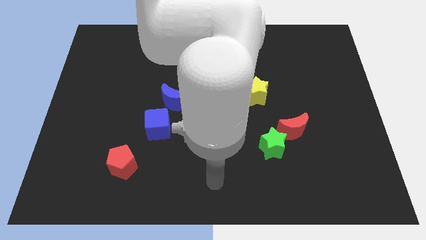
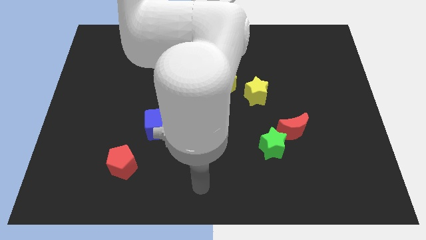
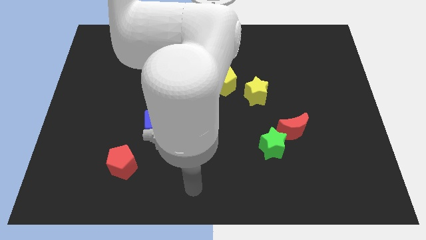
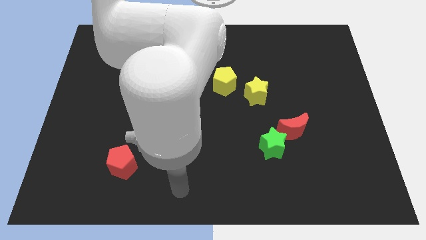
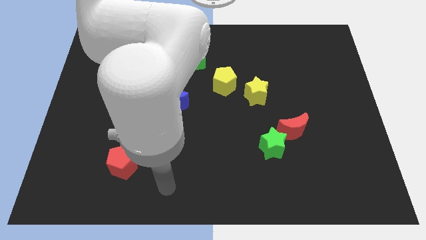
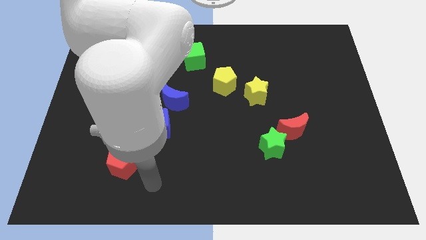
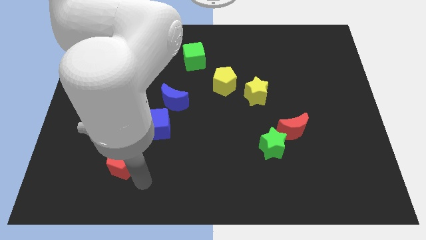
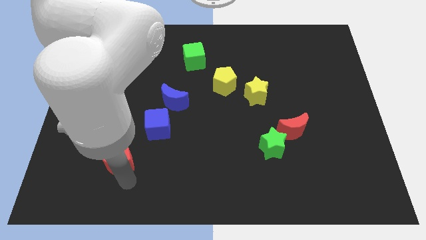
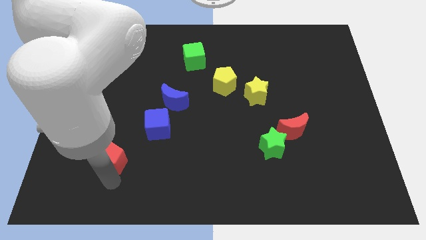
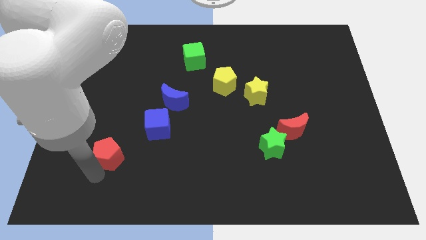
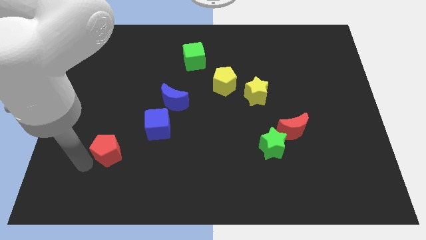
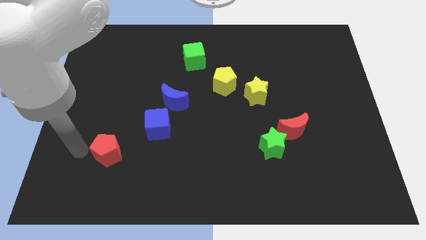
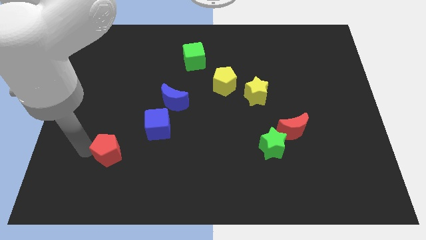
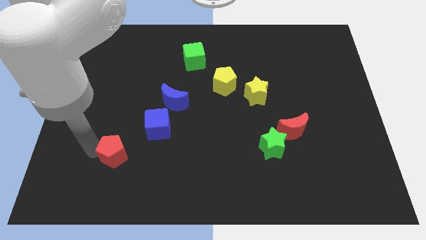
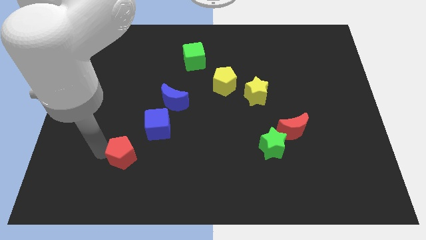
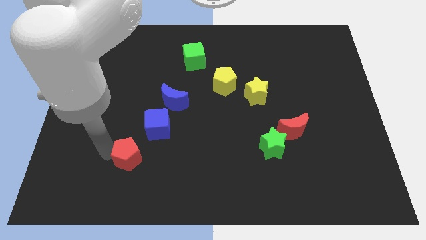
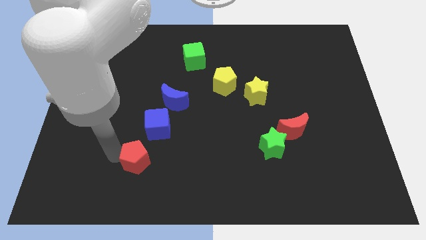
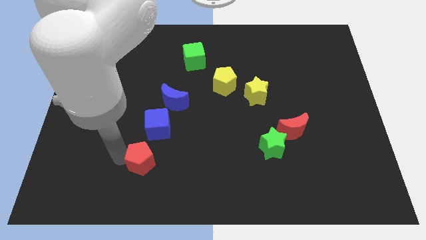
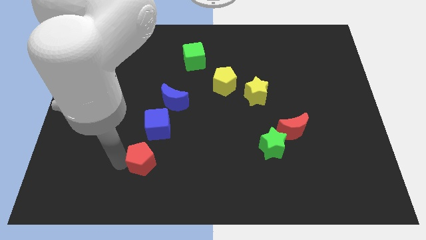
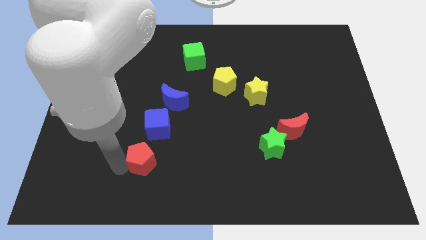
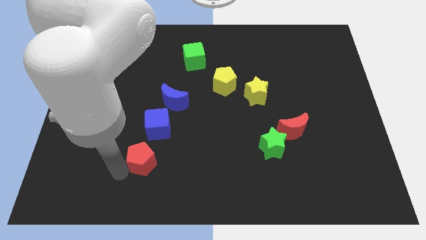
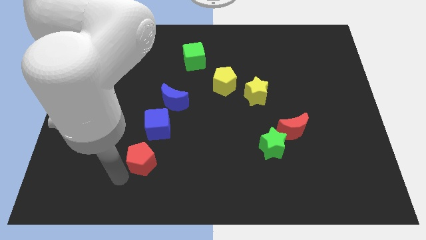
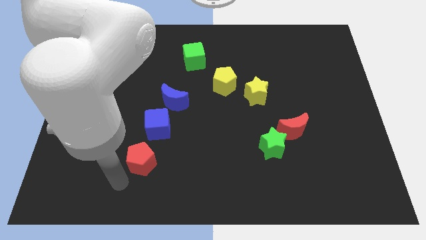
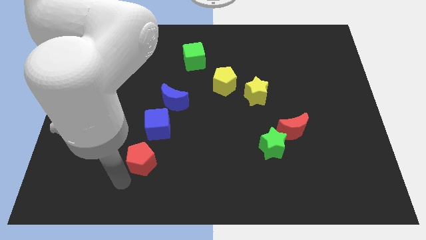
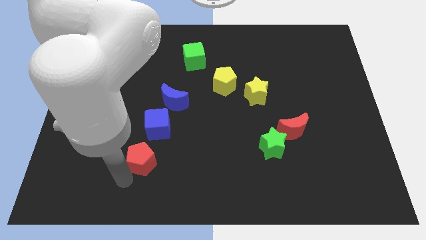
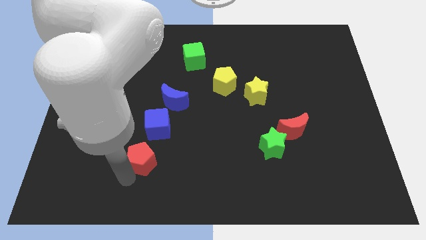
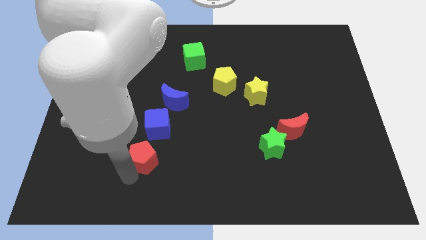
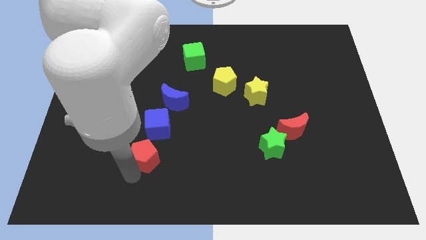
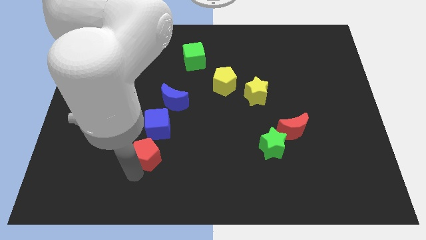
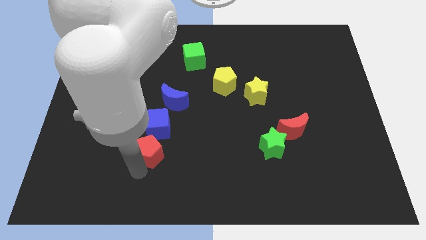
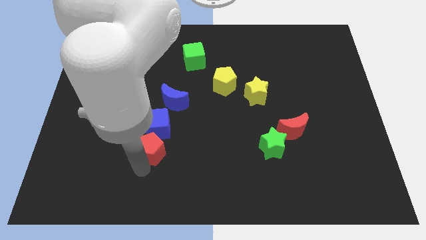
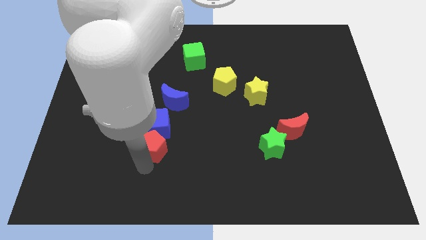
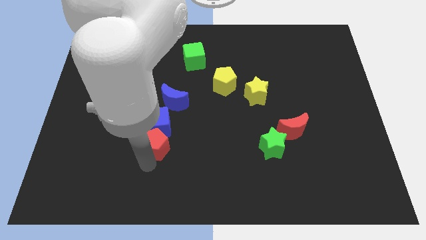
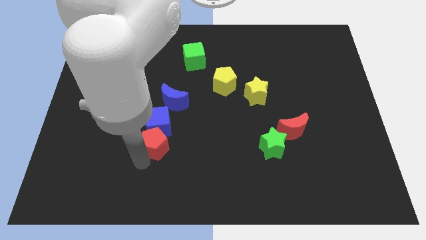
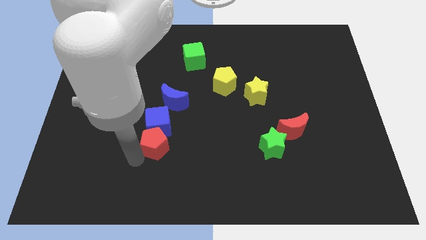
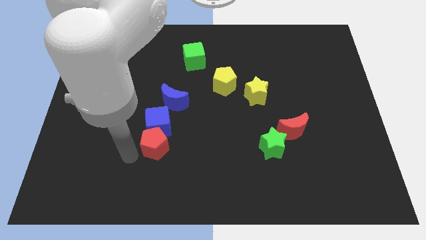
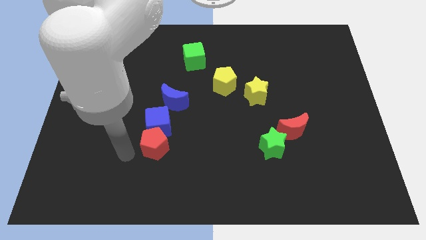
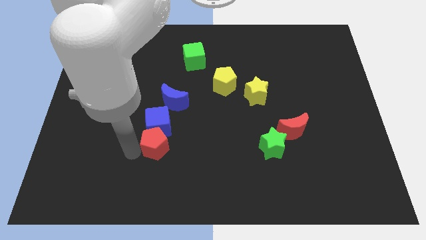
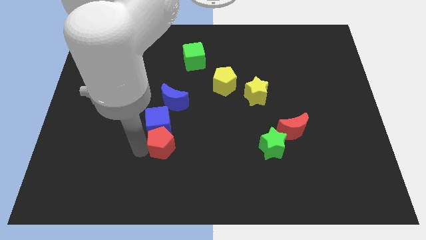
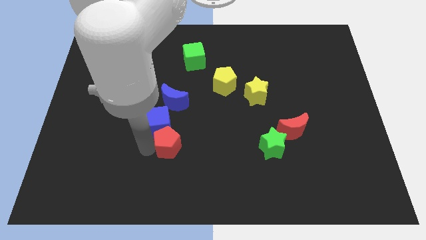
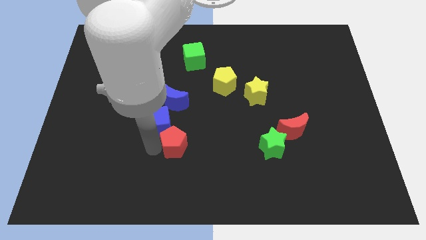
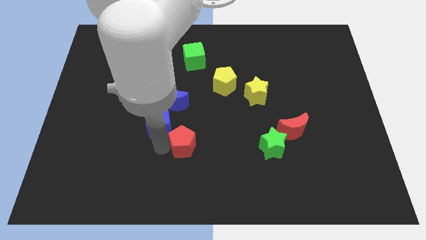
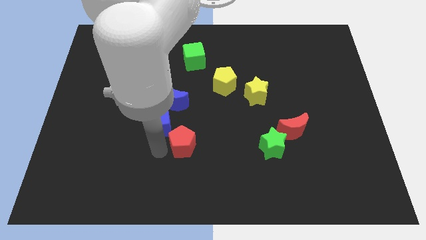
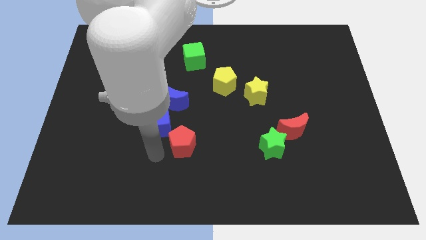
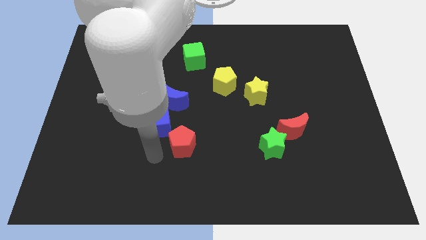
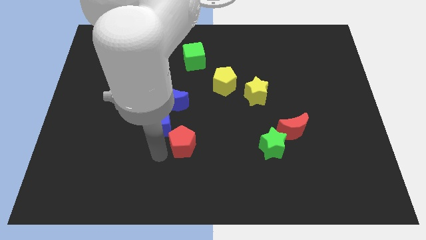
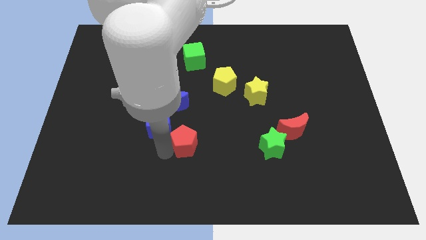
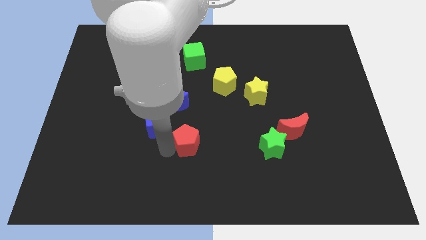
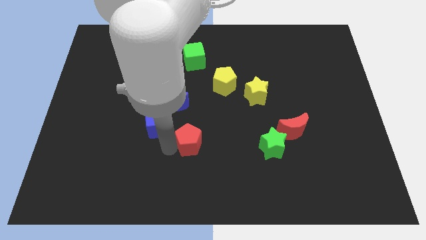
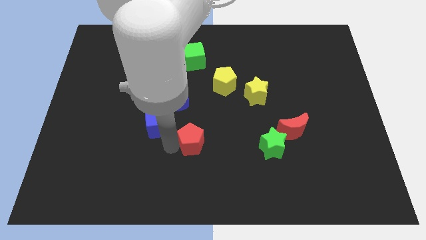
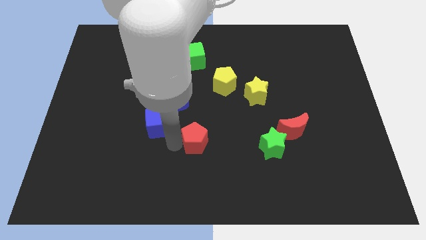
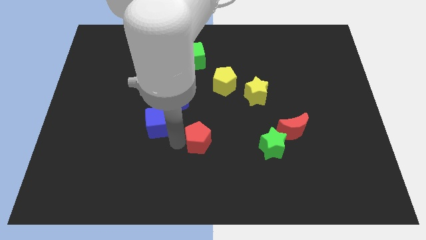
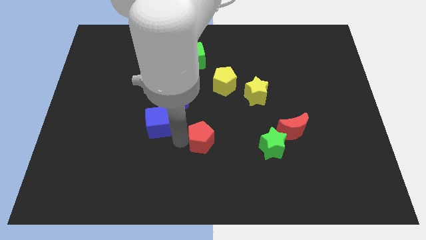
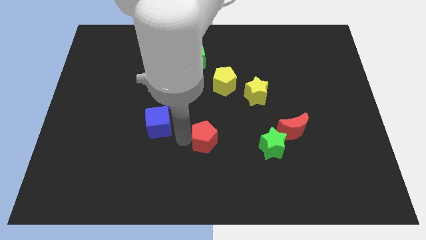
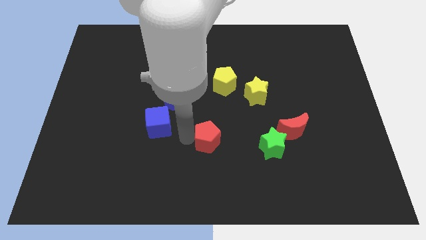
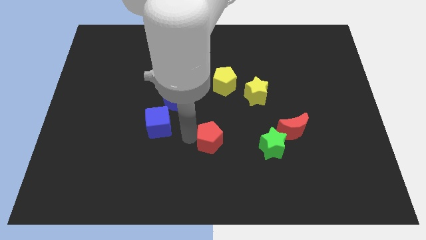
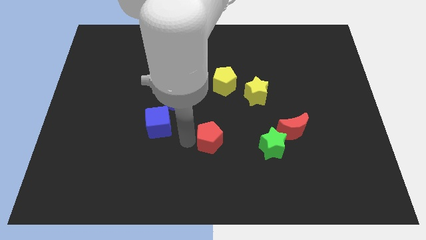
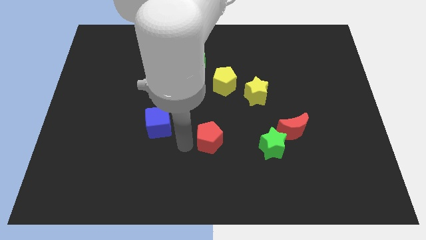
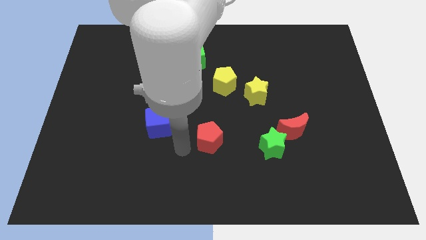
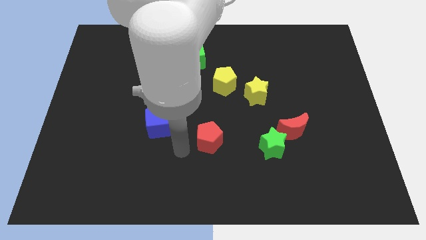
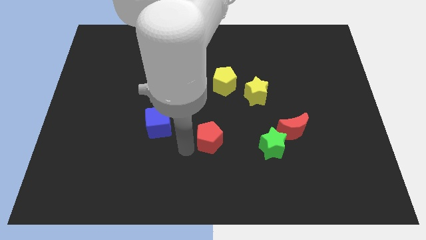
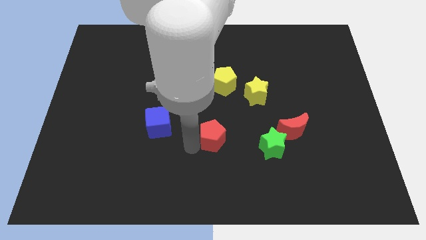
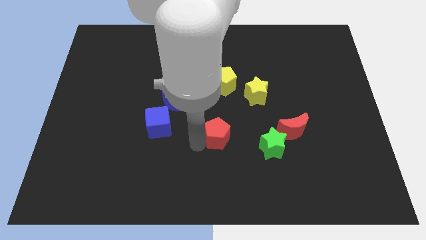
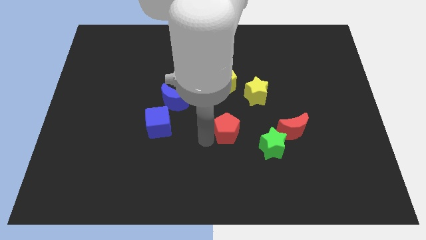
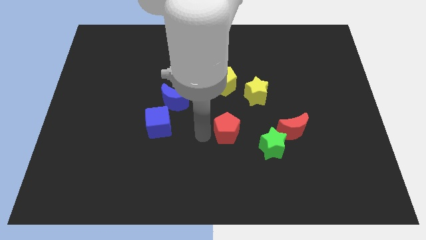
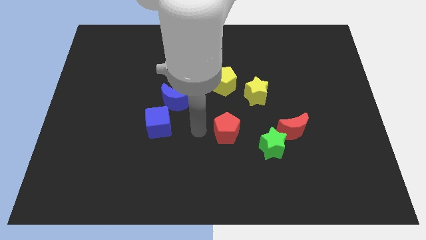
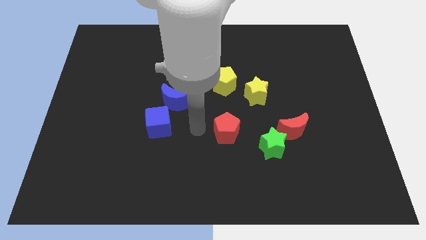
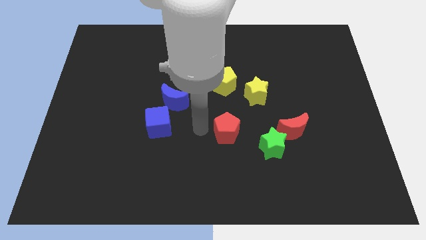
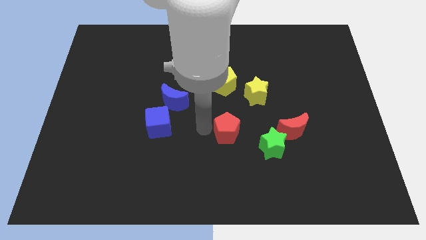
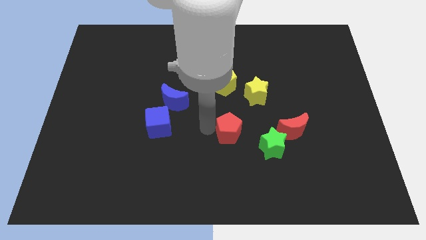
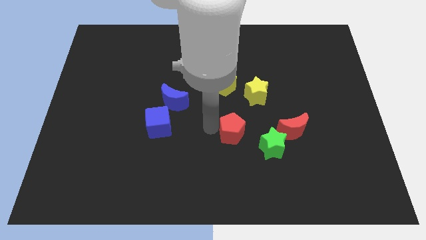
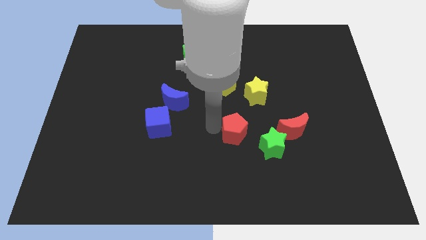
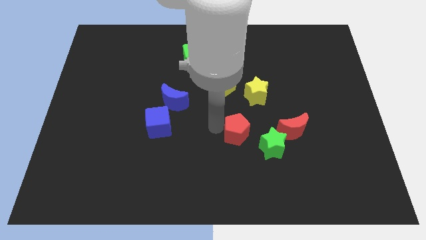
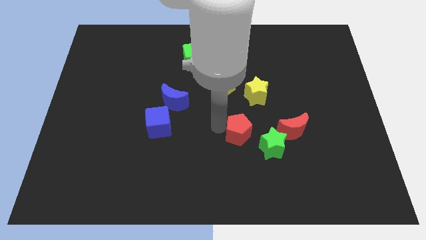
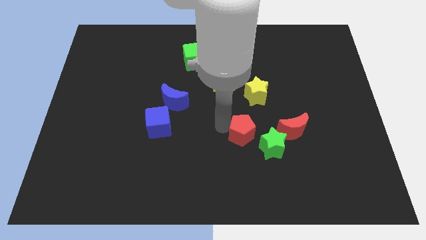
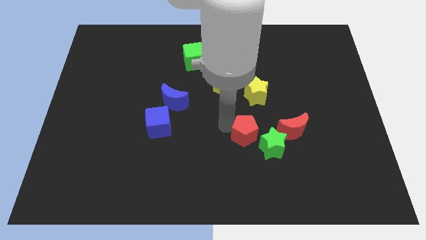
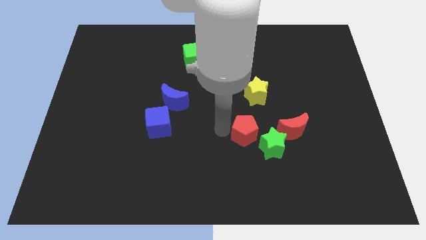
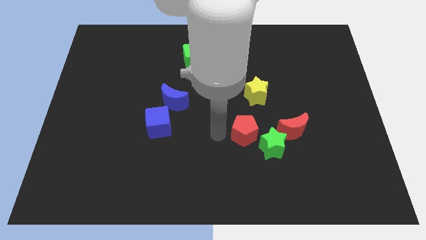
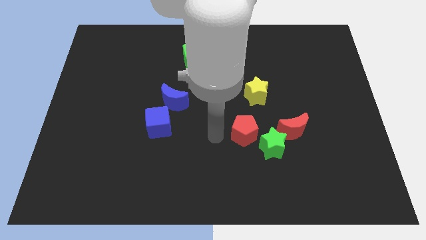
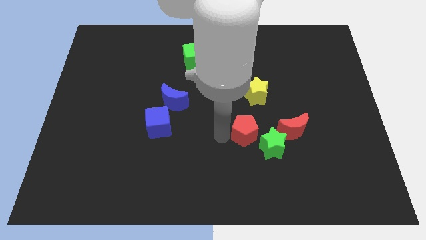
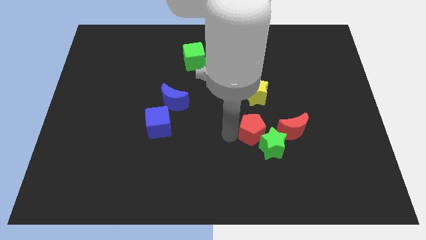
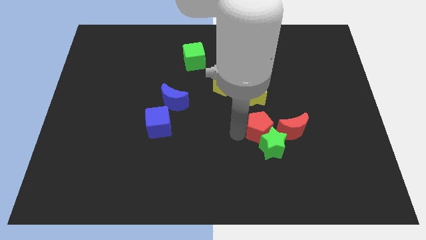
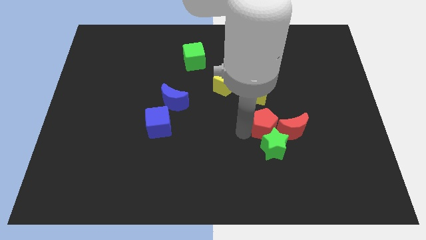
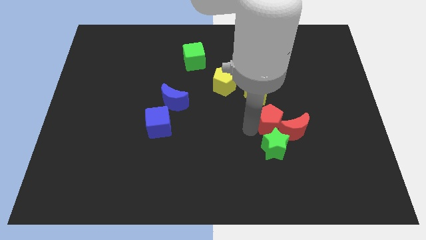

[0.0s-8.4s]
move the red pentagon towards the red moon
